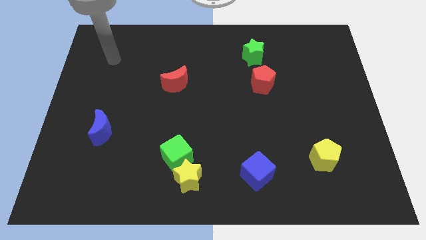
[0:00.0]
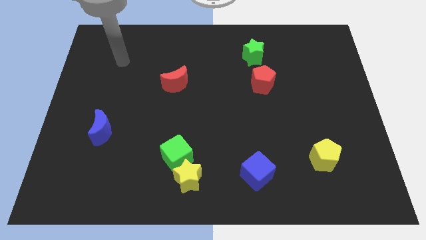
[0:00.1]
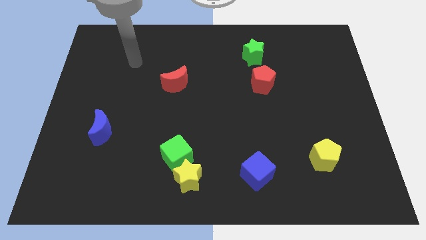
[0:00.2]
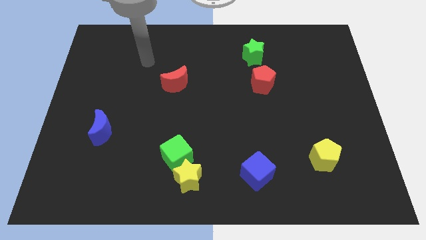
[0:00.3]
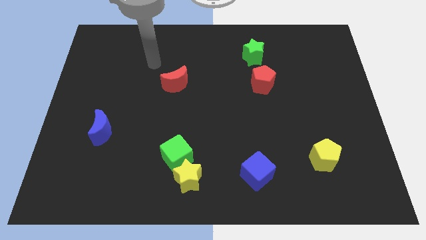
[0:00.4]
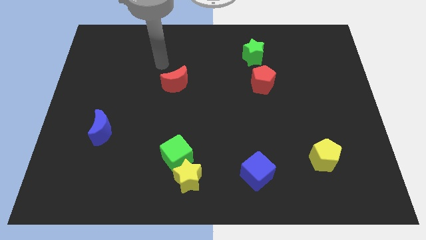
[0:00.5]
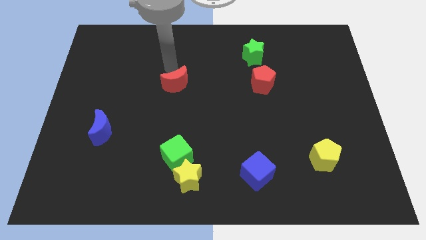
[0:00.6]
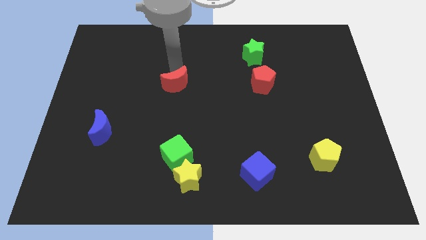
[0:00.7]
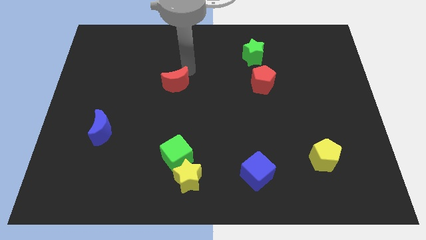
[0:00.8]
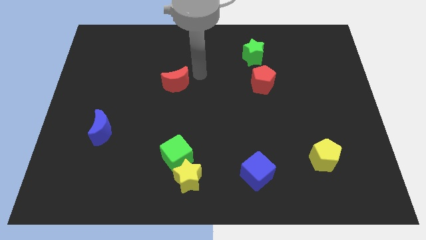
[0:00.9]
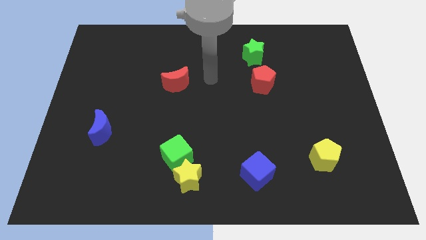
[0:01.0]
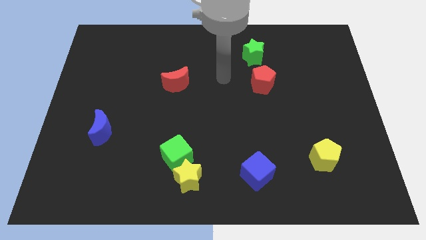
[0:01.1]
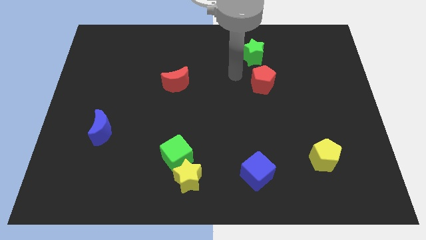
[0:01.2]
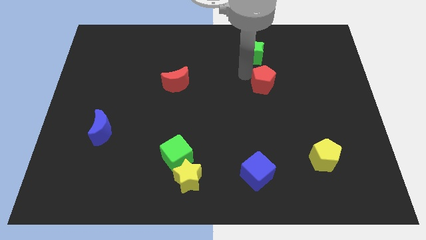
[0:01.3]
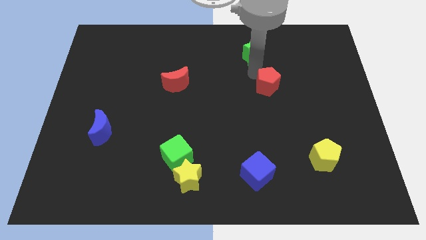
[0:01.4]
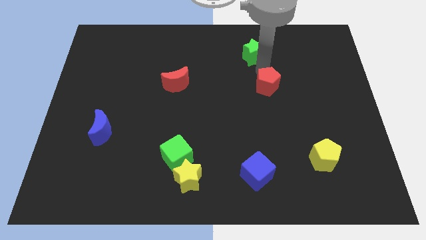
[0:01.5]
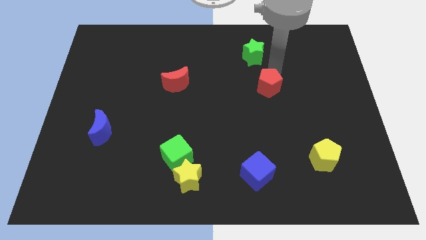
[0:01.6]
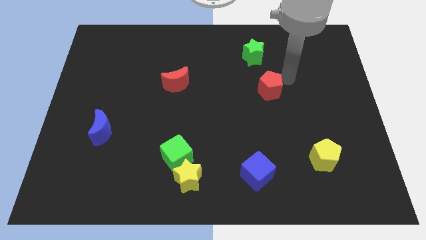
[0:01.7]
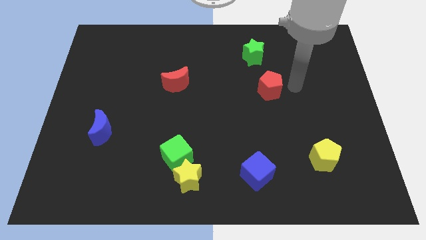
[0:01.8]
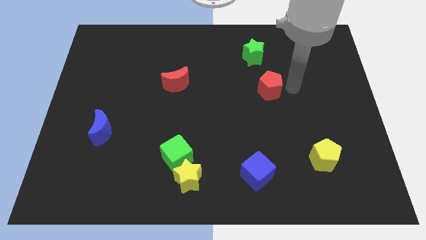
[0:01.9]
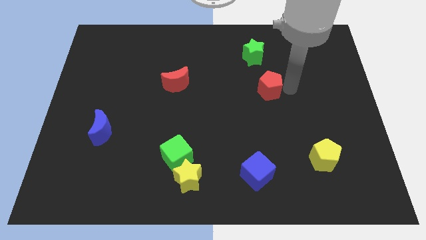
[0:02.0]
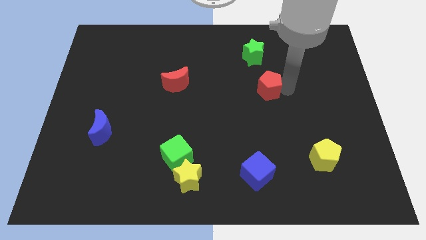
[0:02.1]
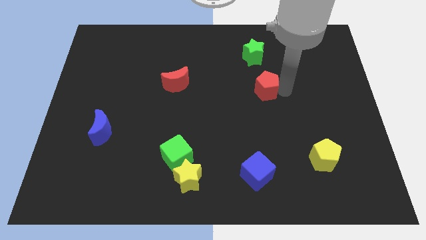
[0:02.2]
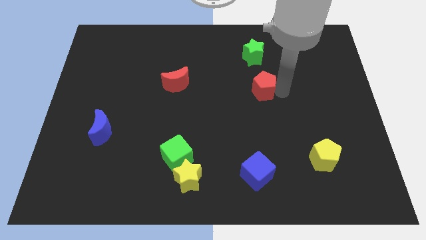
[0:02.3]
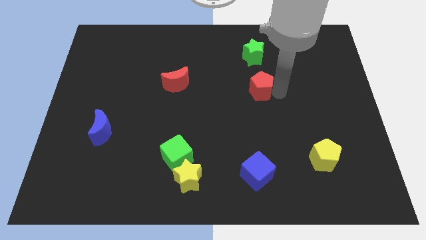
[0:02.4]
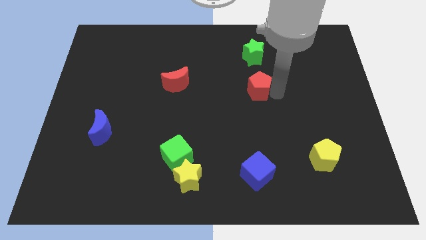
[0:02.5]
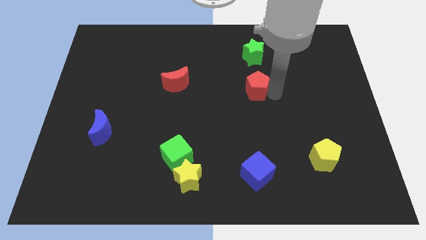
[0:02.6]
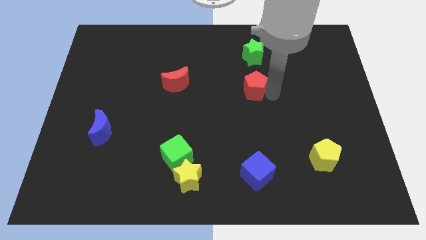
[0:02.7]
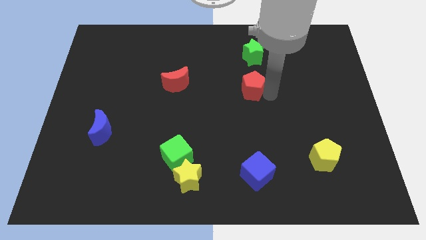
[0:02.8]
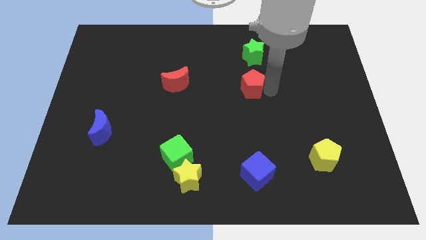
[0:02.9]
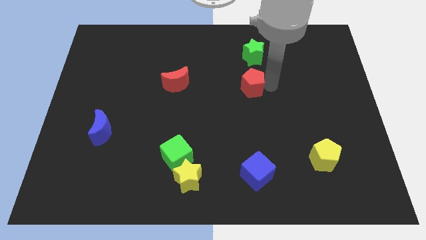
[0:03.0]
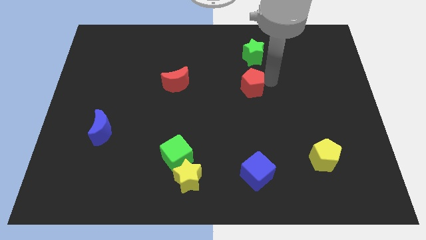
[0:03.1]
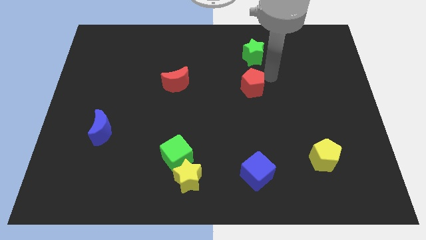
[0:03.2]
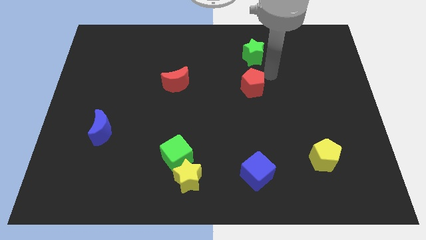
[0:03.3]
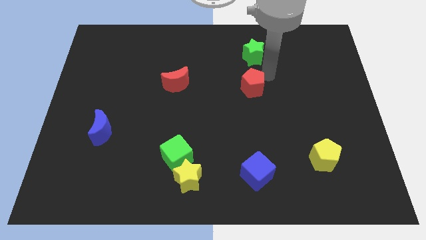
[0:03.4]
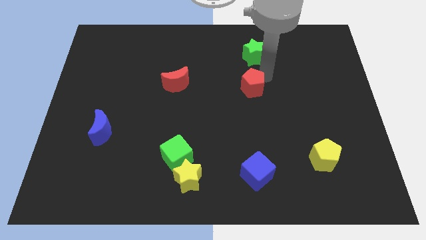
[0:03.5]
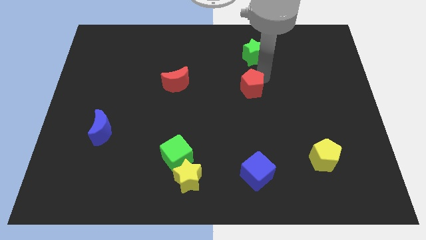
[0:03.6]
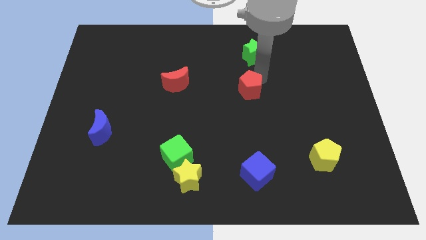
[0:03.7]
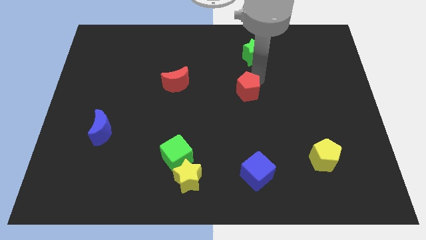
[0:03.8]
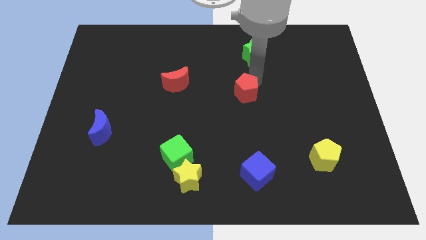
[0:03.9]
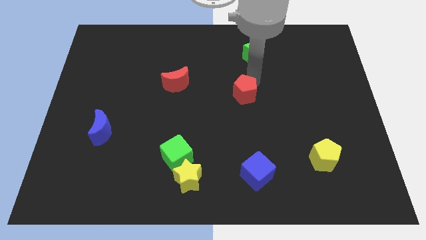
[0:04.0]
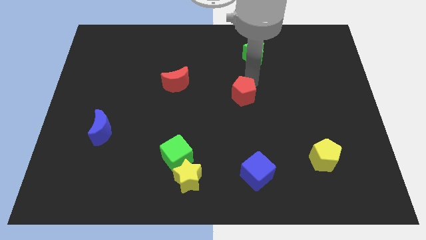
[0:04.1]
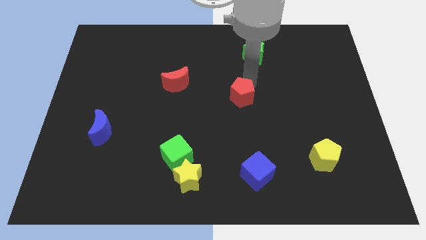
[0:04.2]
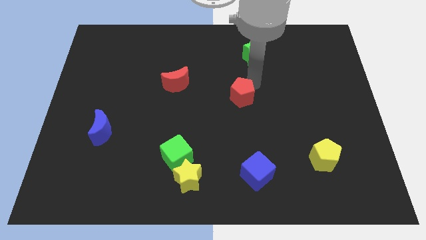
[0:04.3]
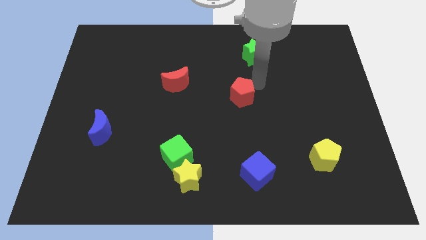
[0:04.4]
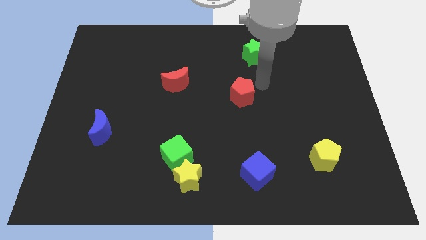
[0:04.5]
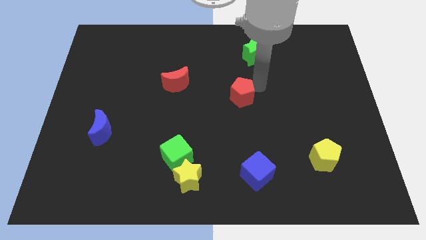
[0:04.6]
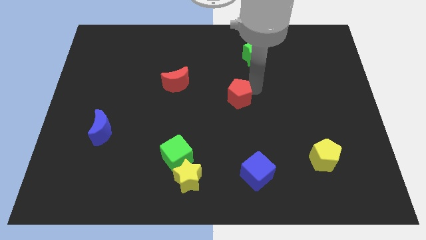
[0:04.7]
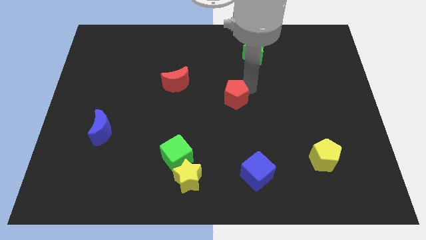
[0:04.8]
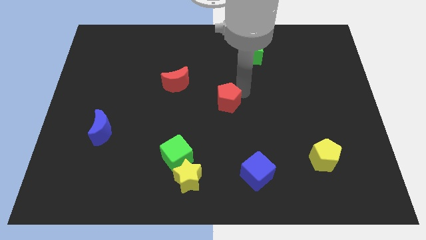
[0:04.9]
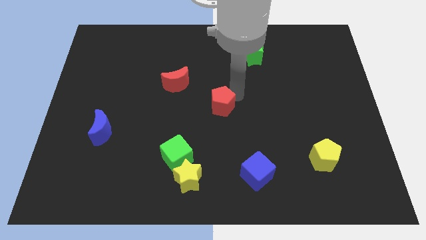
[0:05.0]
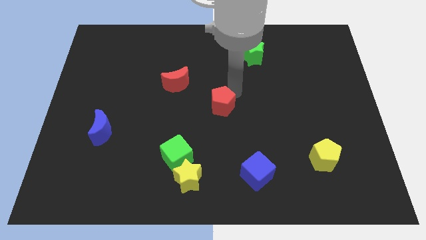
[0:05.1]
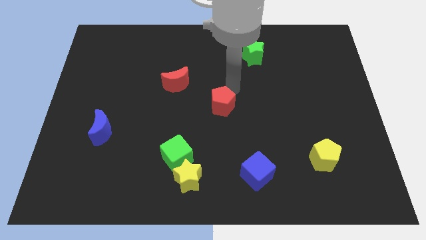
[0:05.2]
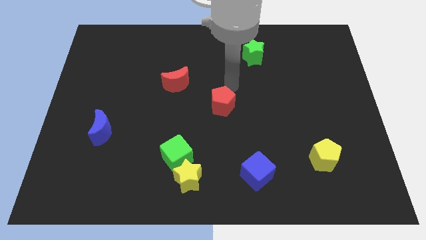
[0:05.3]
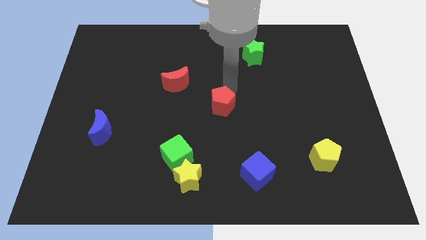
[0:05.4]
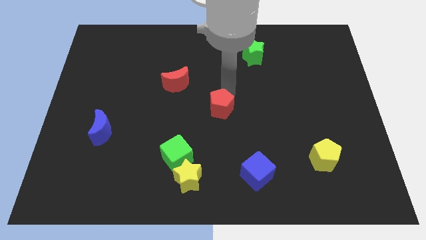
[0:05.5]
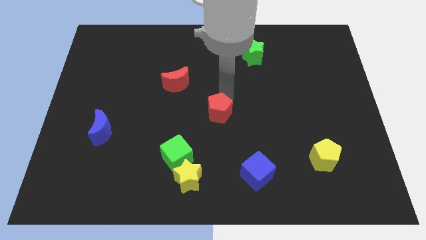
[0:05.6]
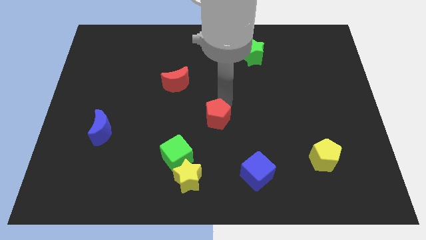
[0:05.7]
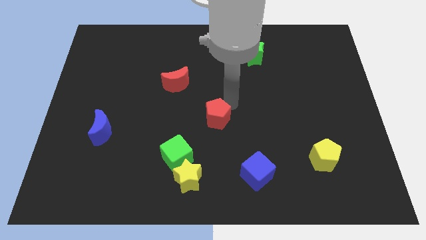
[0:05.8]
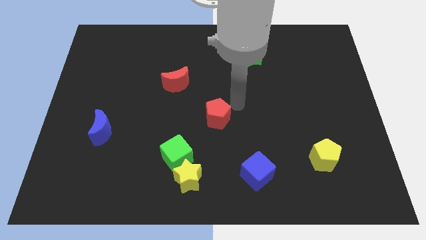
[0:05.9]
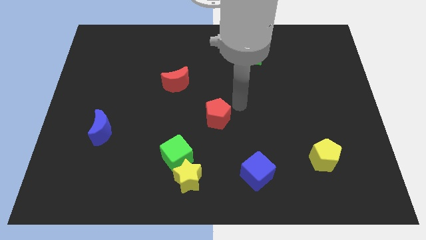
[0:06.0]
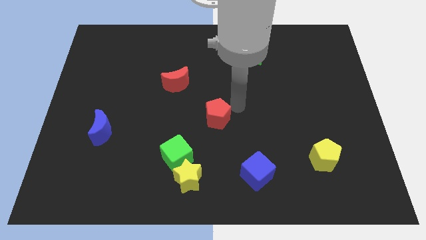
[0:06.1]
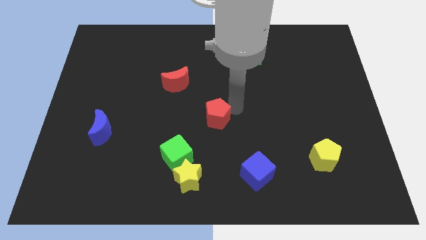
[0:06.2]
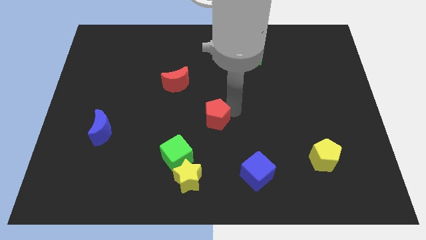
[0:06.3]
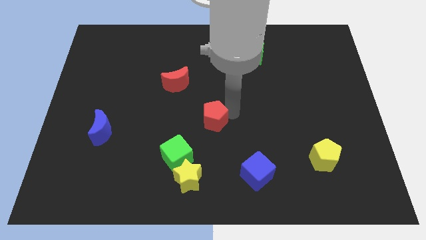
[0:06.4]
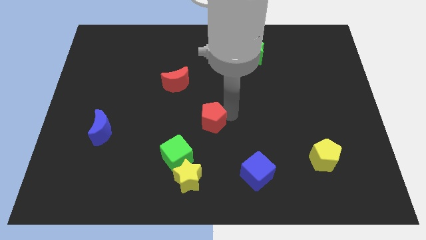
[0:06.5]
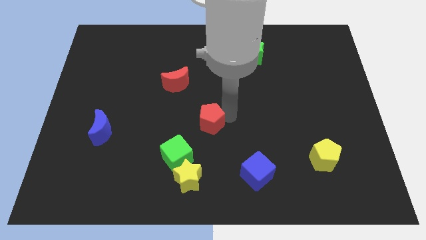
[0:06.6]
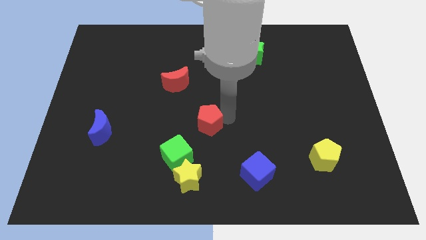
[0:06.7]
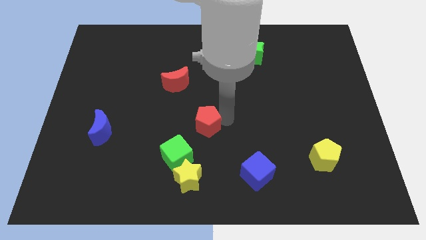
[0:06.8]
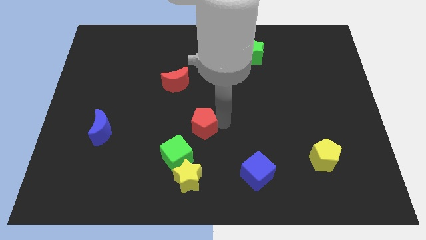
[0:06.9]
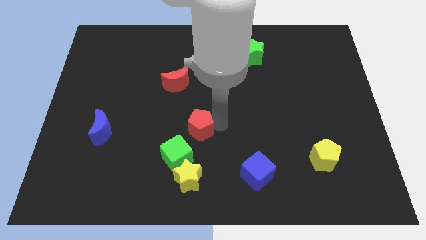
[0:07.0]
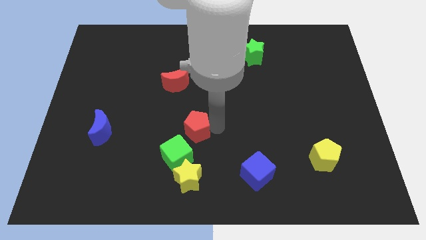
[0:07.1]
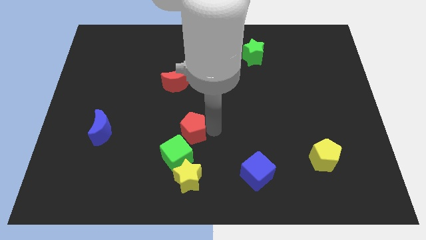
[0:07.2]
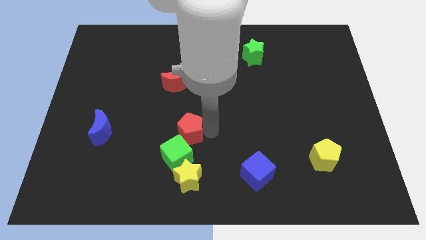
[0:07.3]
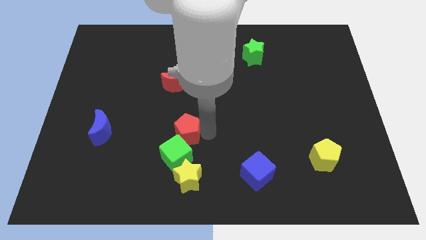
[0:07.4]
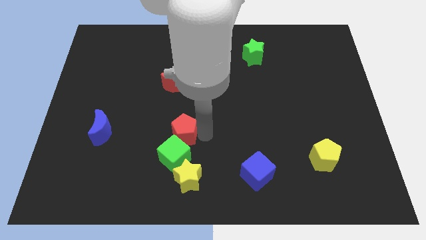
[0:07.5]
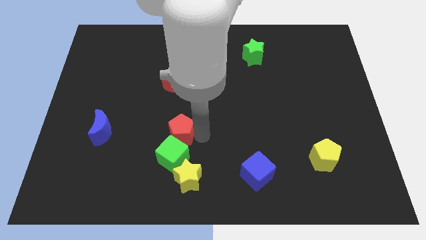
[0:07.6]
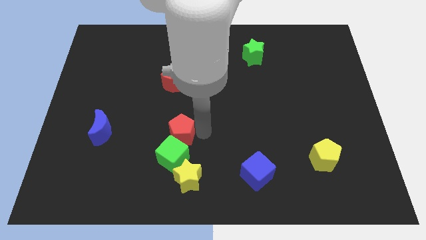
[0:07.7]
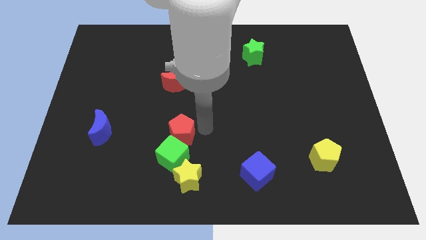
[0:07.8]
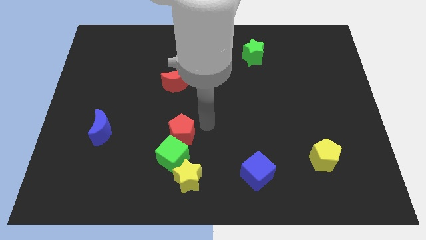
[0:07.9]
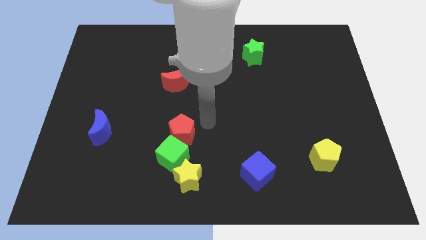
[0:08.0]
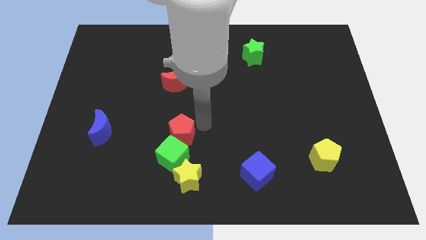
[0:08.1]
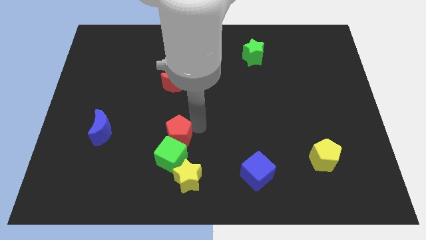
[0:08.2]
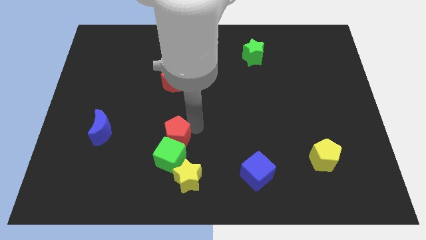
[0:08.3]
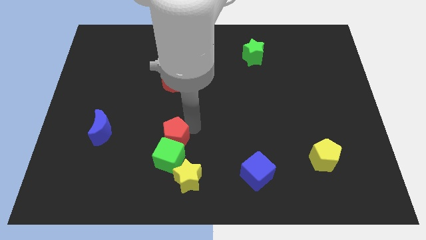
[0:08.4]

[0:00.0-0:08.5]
slide the red pentagon to the top left side of the yellow star
